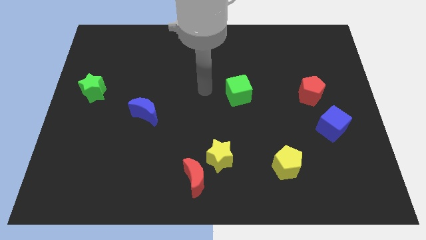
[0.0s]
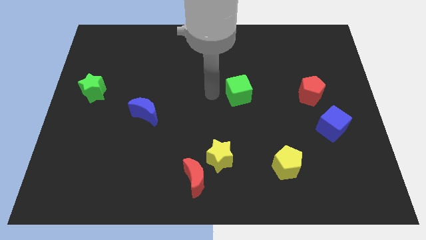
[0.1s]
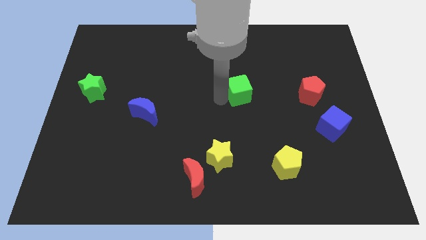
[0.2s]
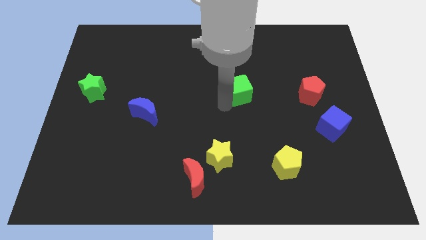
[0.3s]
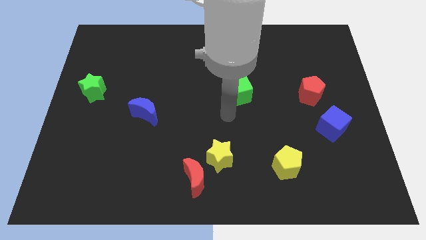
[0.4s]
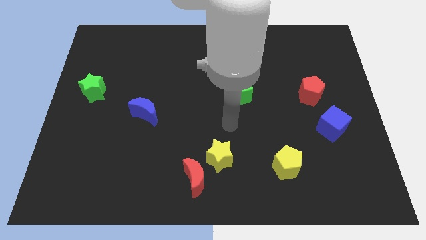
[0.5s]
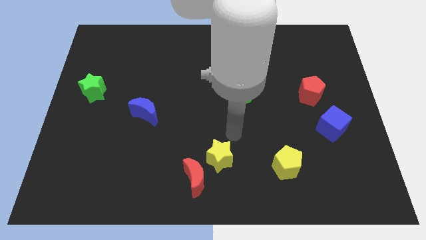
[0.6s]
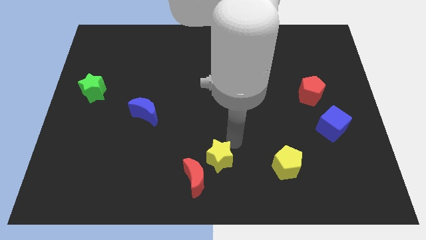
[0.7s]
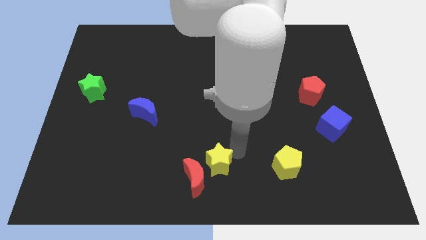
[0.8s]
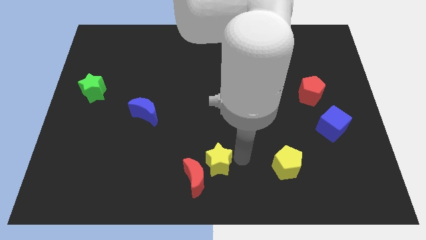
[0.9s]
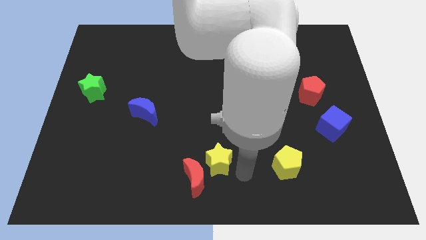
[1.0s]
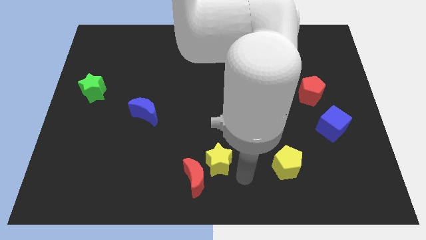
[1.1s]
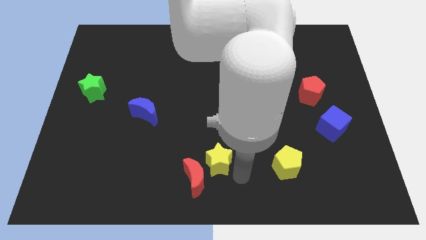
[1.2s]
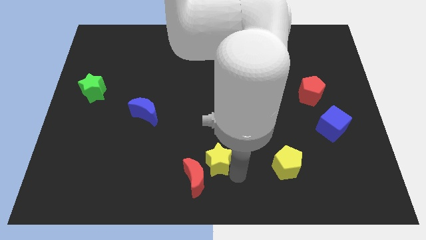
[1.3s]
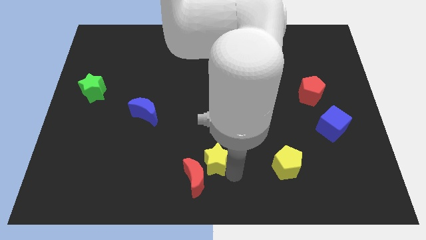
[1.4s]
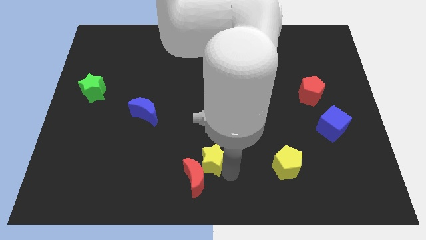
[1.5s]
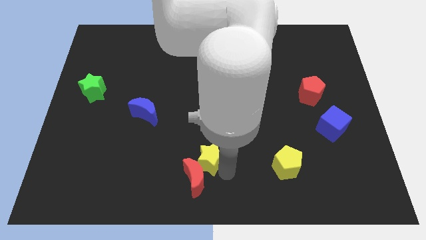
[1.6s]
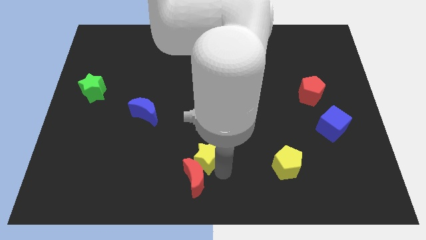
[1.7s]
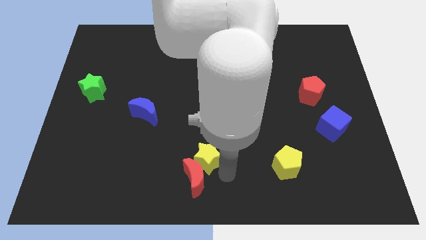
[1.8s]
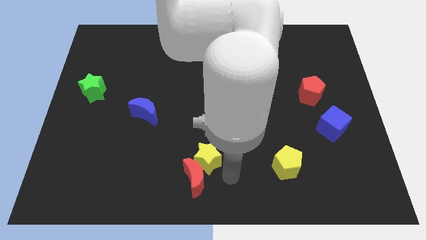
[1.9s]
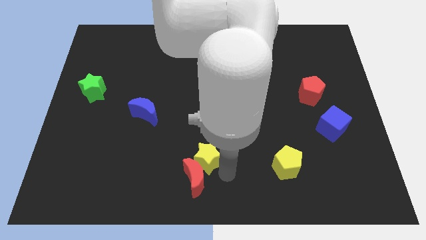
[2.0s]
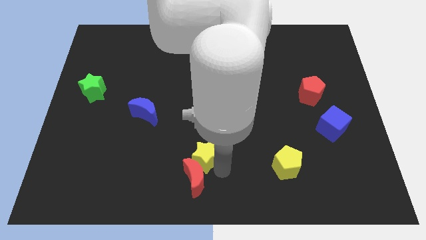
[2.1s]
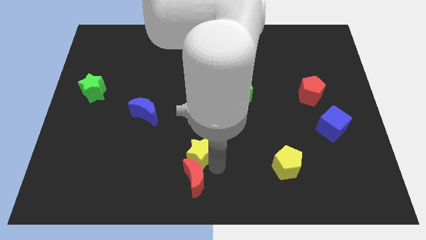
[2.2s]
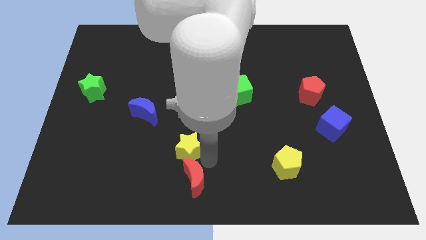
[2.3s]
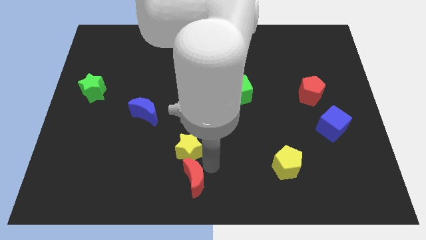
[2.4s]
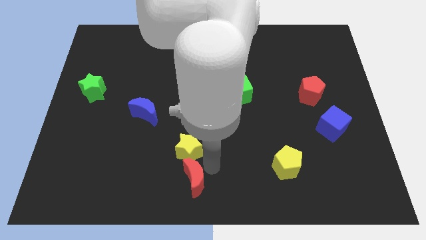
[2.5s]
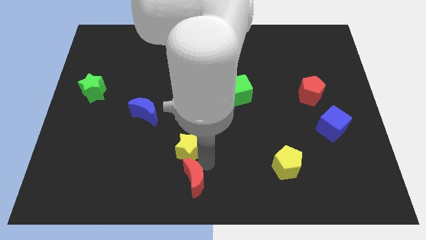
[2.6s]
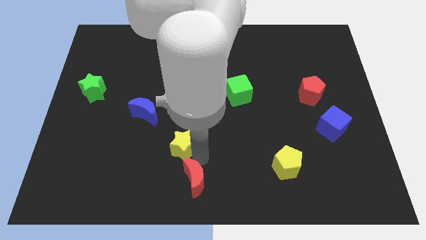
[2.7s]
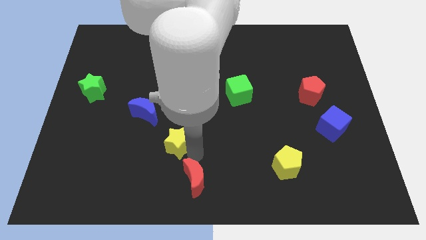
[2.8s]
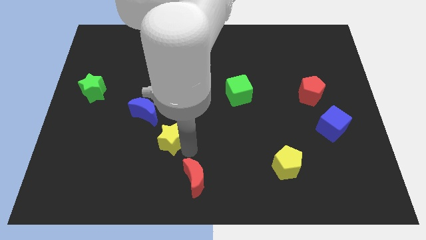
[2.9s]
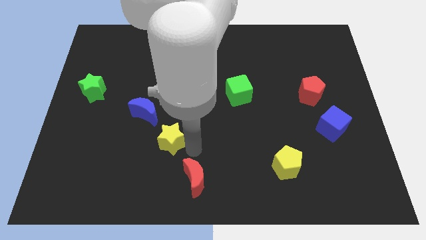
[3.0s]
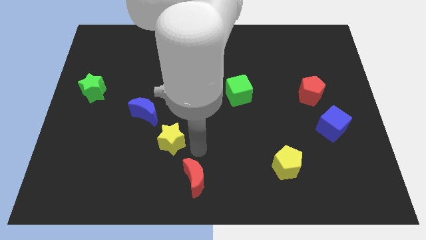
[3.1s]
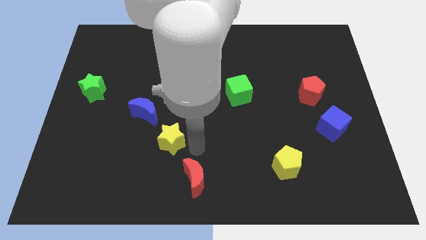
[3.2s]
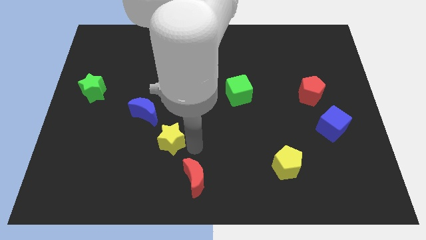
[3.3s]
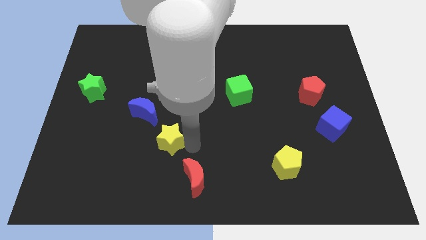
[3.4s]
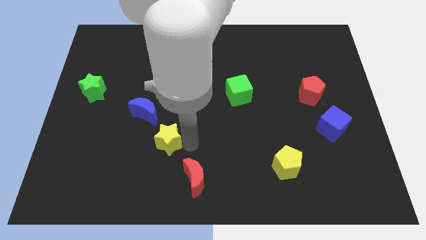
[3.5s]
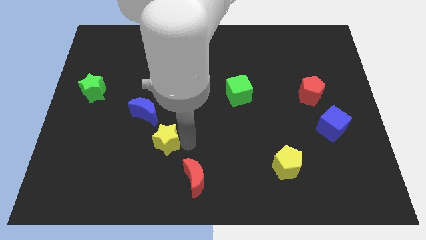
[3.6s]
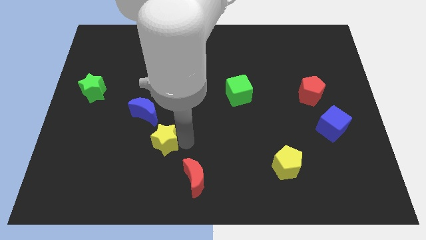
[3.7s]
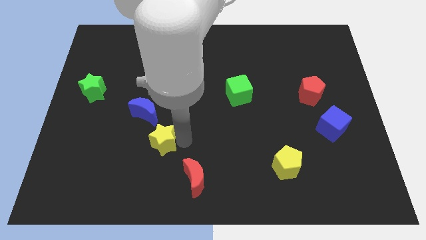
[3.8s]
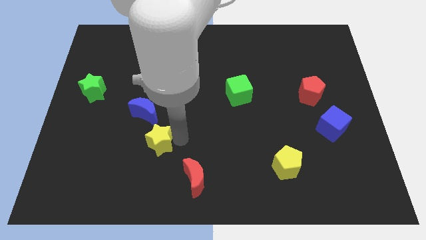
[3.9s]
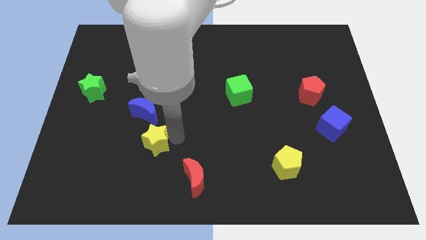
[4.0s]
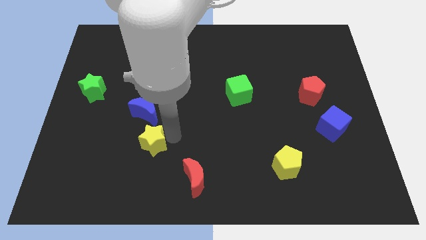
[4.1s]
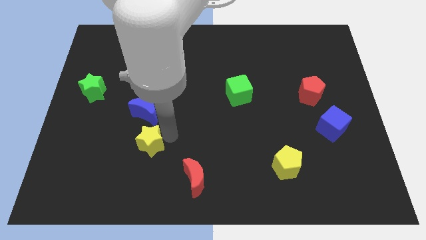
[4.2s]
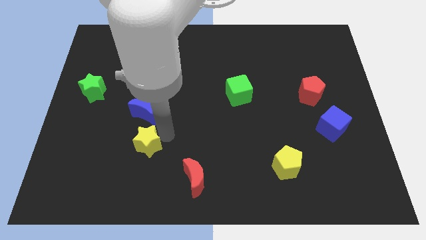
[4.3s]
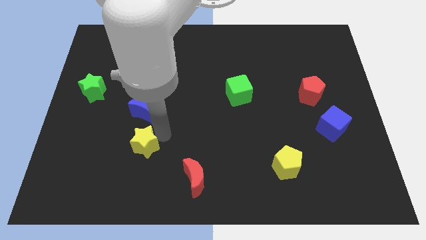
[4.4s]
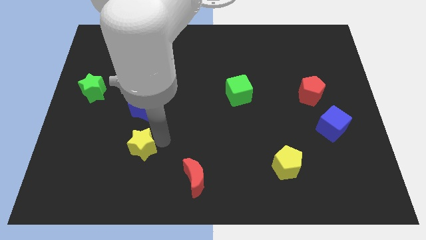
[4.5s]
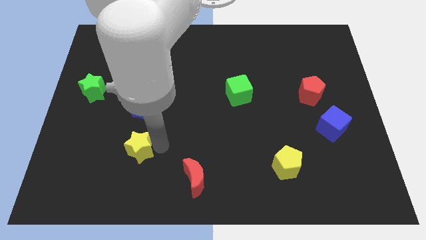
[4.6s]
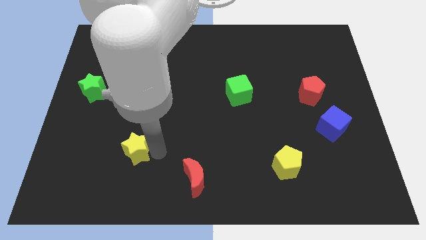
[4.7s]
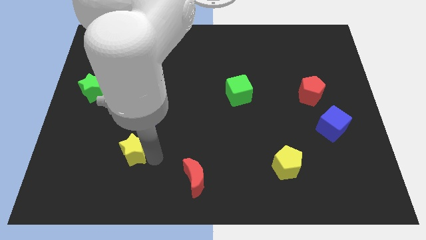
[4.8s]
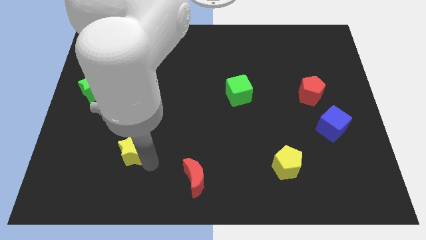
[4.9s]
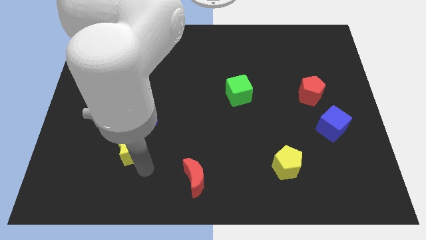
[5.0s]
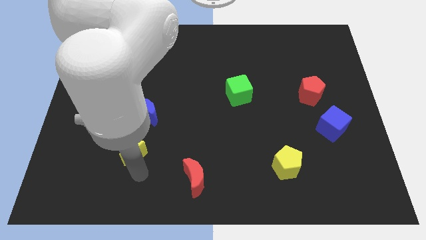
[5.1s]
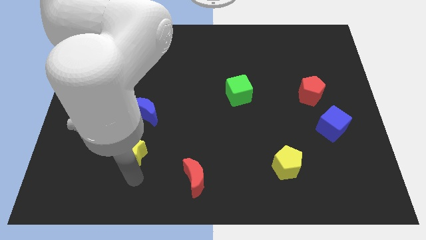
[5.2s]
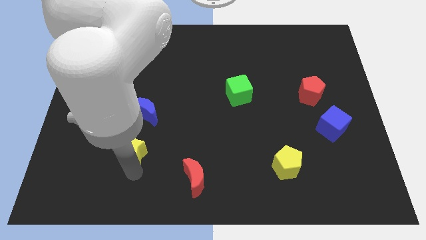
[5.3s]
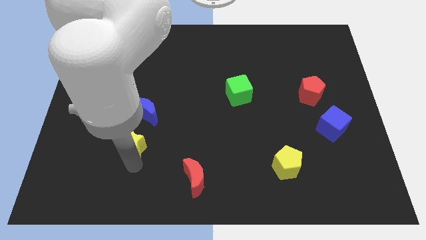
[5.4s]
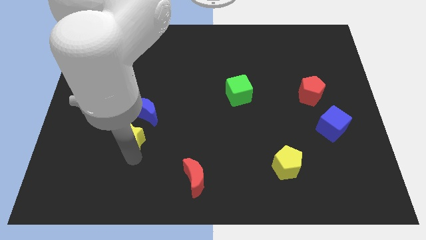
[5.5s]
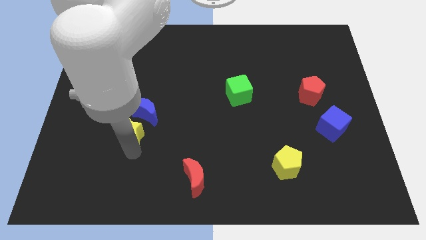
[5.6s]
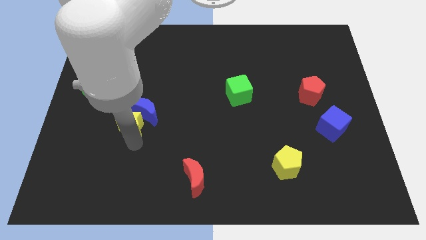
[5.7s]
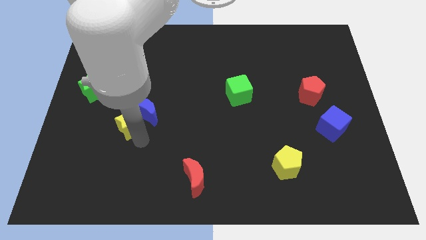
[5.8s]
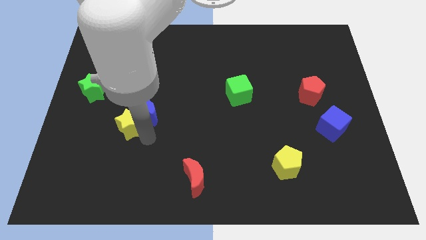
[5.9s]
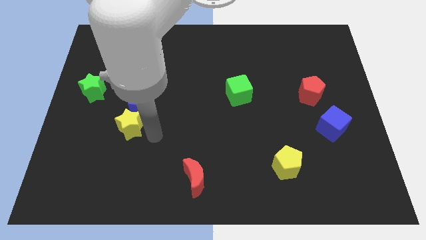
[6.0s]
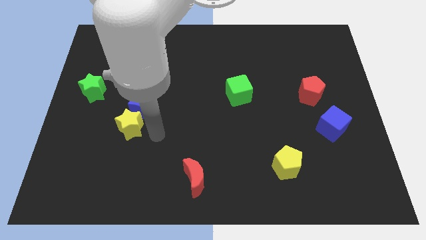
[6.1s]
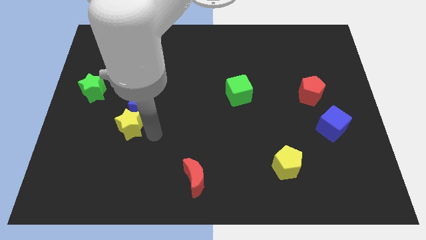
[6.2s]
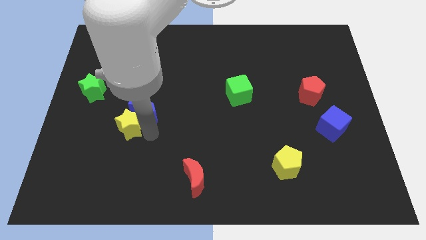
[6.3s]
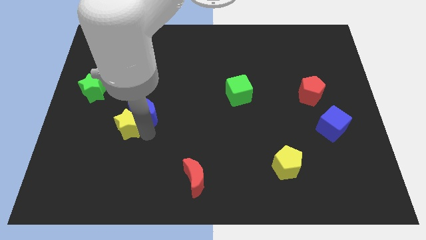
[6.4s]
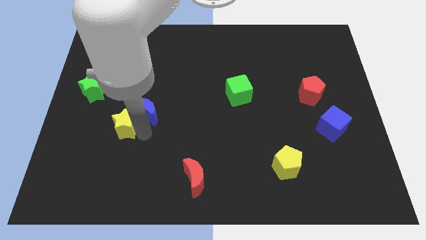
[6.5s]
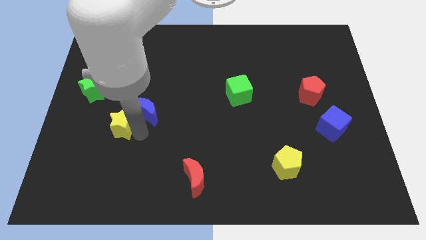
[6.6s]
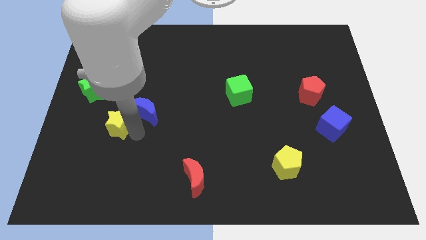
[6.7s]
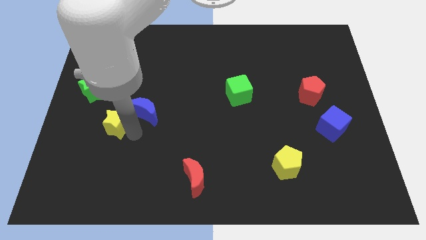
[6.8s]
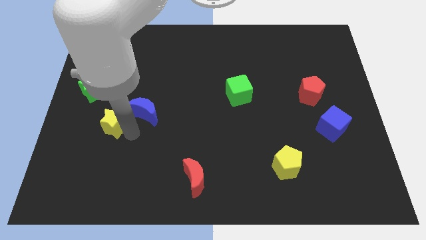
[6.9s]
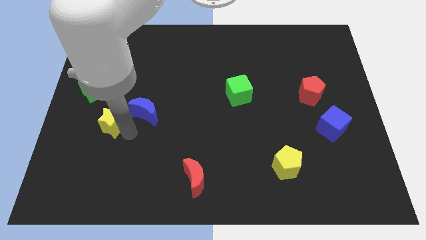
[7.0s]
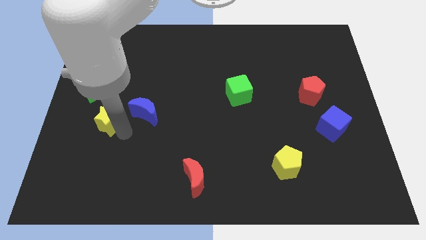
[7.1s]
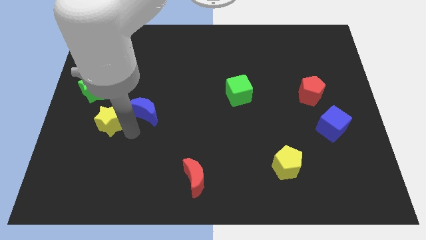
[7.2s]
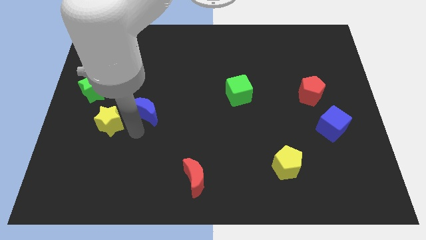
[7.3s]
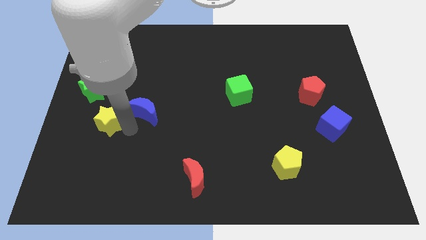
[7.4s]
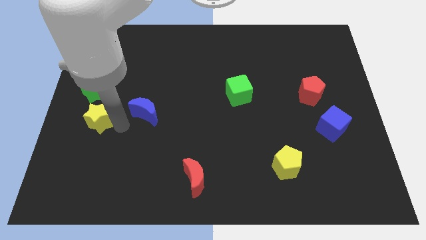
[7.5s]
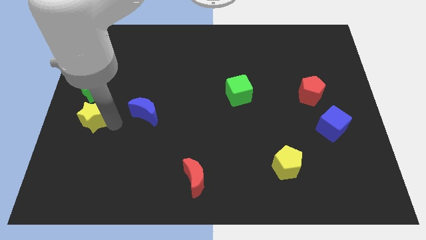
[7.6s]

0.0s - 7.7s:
move the yellow star to the left side of the board
